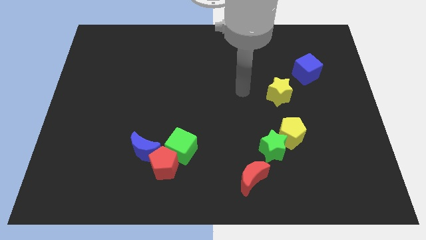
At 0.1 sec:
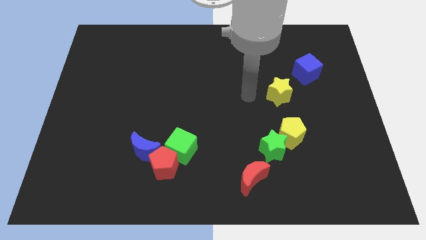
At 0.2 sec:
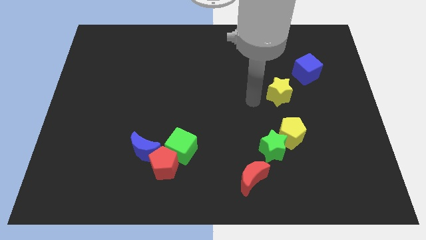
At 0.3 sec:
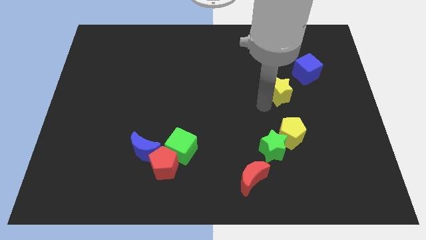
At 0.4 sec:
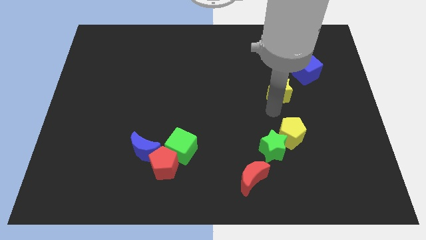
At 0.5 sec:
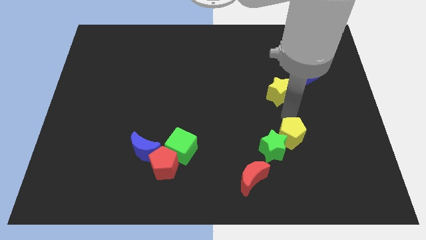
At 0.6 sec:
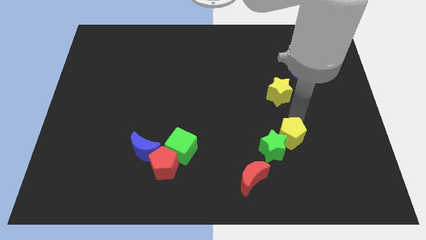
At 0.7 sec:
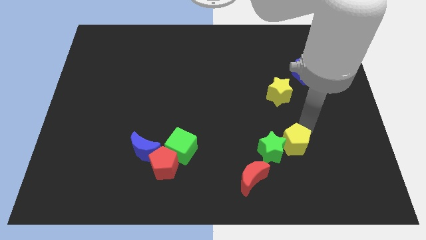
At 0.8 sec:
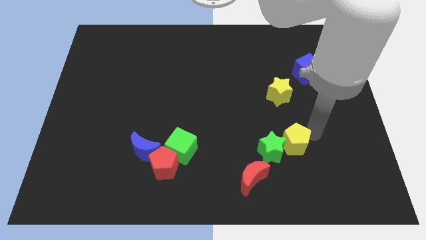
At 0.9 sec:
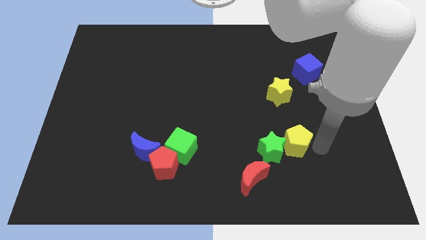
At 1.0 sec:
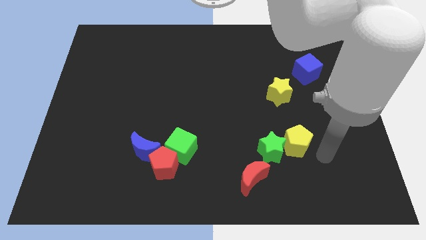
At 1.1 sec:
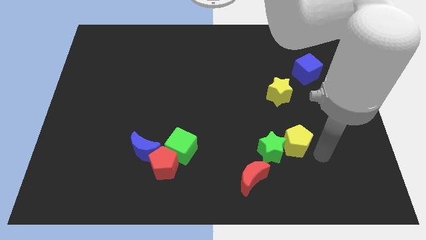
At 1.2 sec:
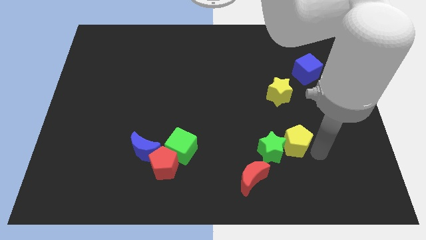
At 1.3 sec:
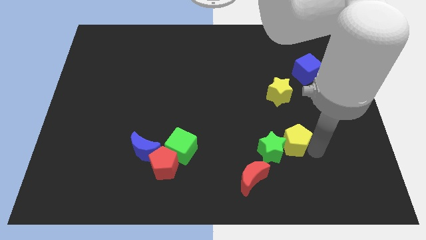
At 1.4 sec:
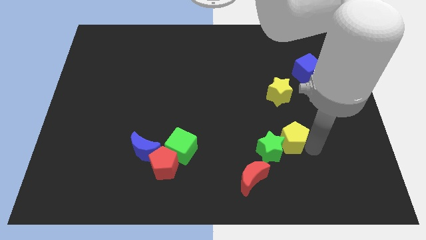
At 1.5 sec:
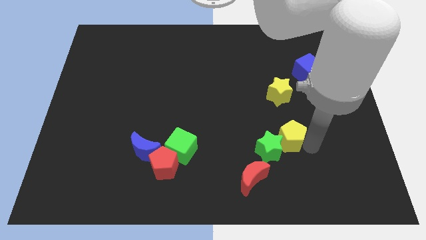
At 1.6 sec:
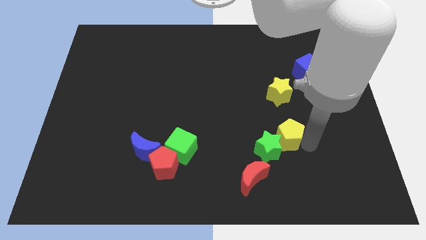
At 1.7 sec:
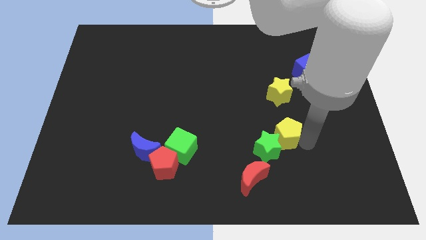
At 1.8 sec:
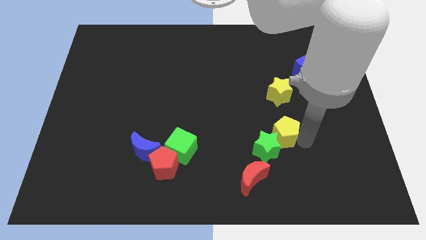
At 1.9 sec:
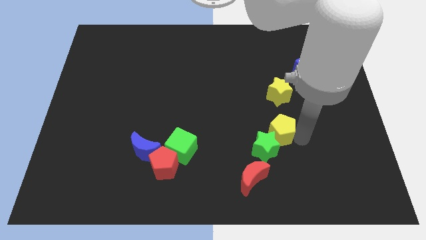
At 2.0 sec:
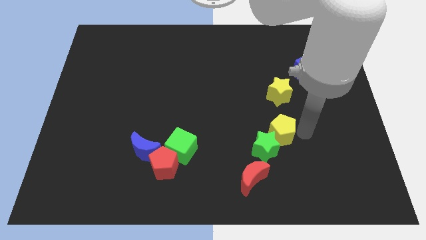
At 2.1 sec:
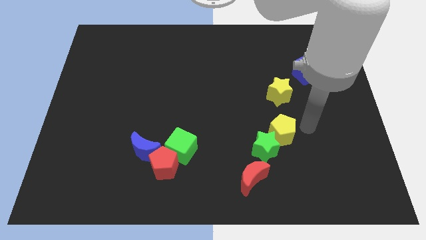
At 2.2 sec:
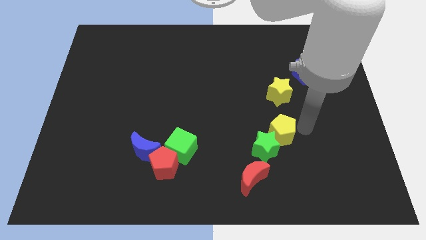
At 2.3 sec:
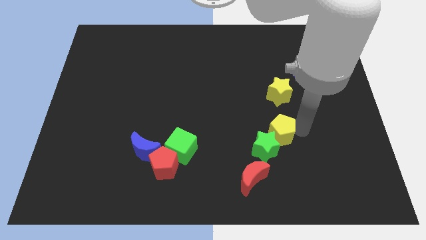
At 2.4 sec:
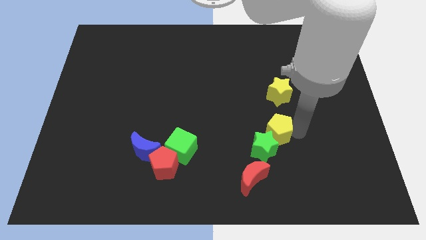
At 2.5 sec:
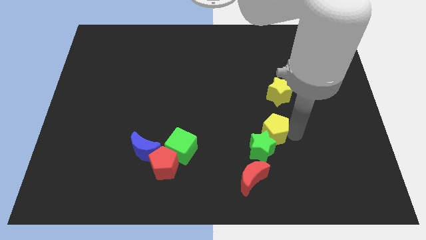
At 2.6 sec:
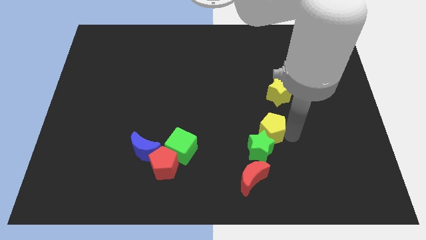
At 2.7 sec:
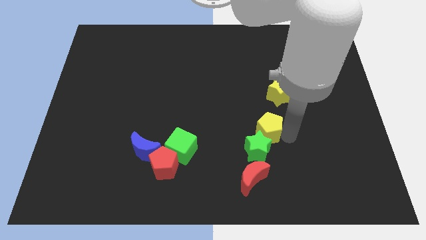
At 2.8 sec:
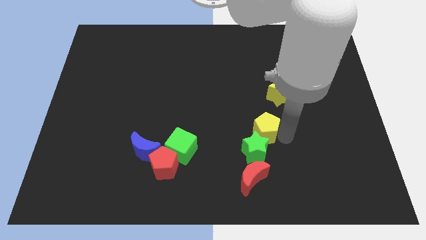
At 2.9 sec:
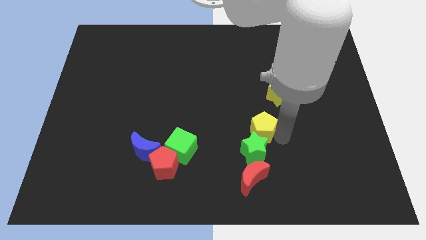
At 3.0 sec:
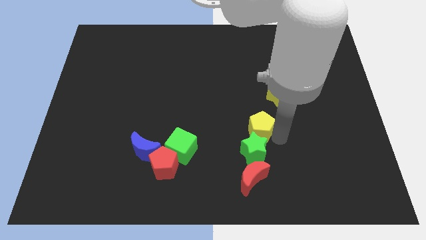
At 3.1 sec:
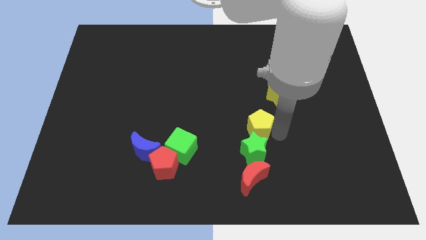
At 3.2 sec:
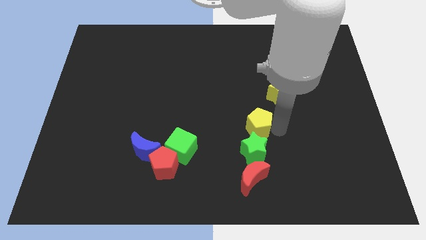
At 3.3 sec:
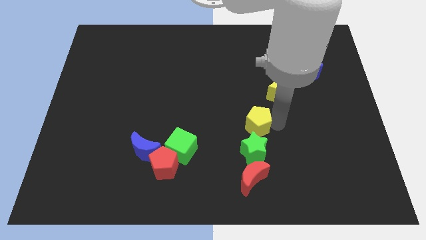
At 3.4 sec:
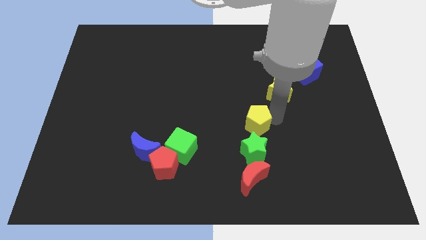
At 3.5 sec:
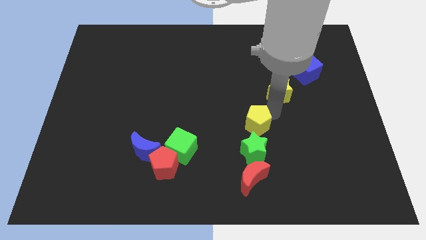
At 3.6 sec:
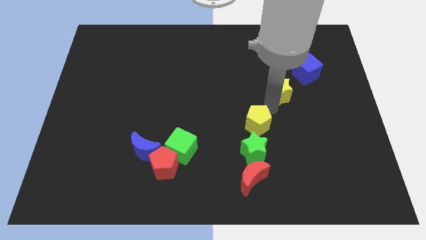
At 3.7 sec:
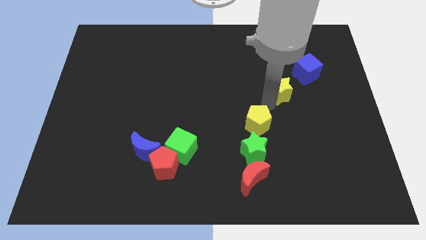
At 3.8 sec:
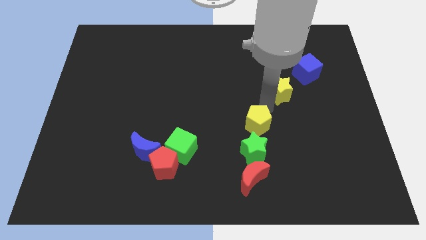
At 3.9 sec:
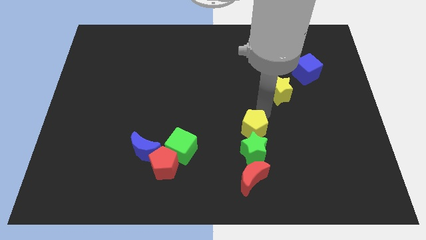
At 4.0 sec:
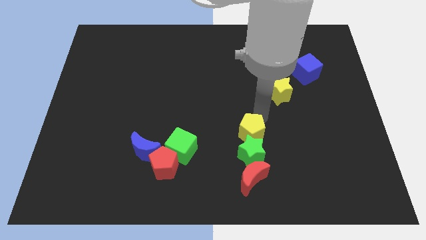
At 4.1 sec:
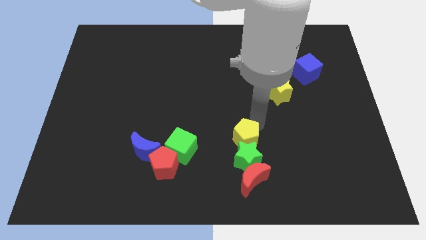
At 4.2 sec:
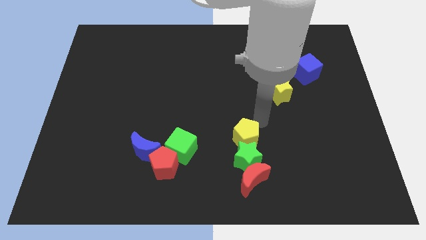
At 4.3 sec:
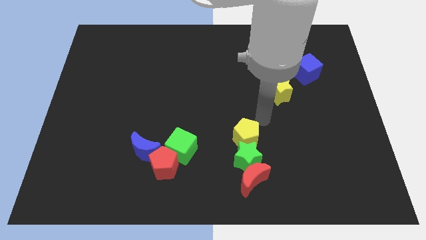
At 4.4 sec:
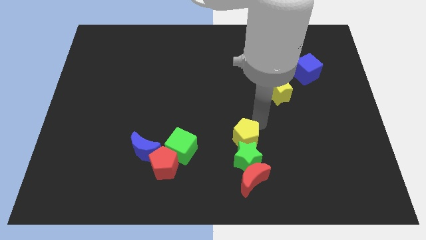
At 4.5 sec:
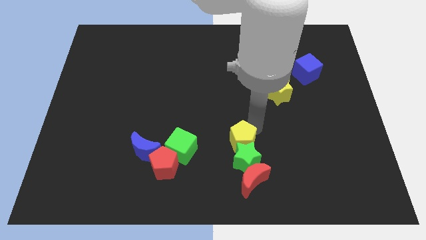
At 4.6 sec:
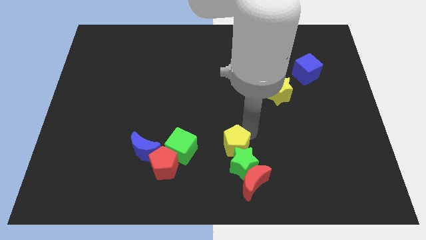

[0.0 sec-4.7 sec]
push the yellow pentagon to the top left side of the red moon

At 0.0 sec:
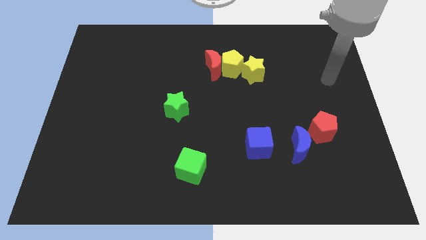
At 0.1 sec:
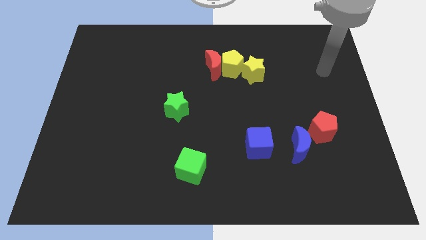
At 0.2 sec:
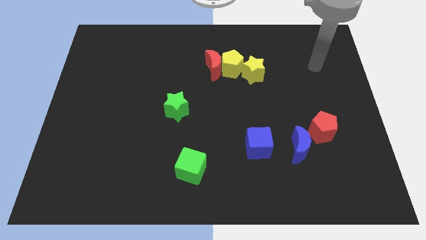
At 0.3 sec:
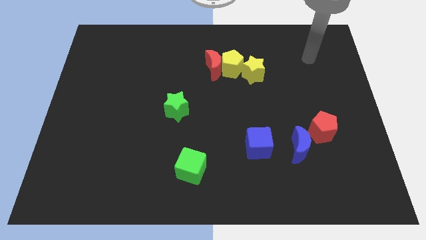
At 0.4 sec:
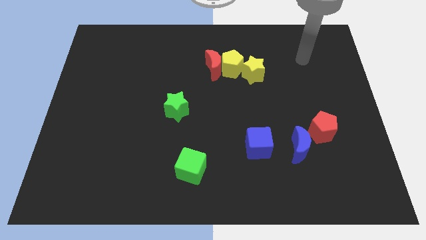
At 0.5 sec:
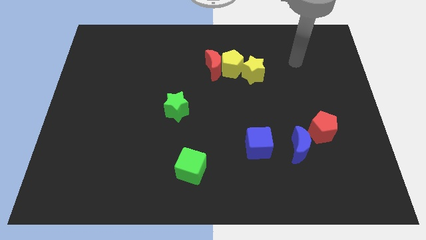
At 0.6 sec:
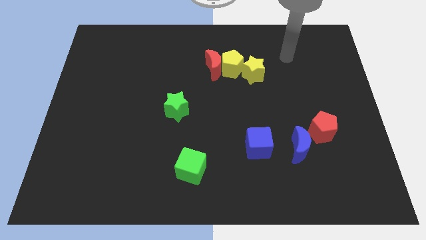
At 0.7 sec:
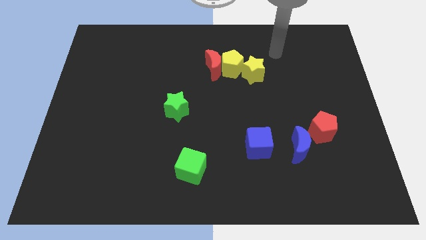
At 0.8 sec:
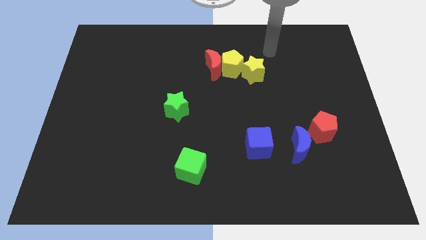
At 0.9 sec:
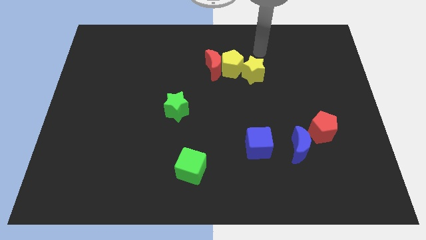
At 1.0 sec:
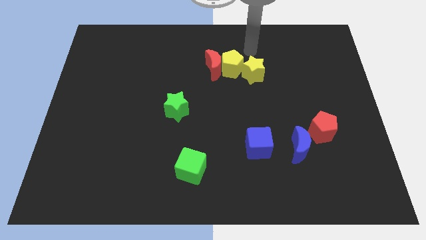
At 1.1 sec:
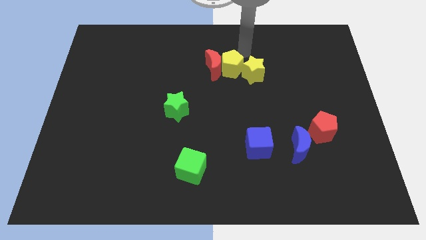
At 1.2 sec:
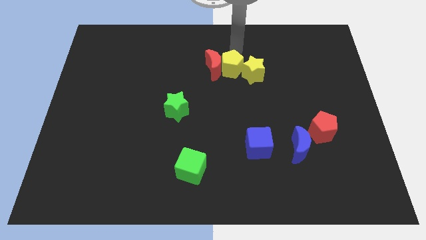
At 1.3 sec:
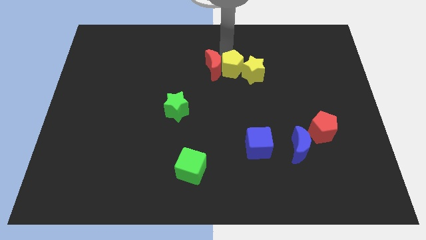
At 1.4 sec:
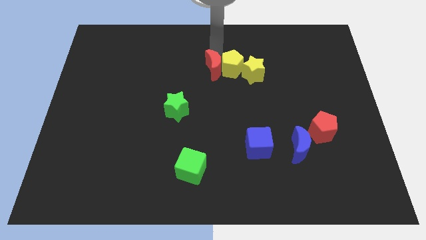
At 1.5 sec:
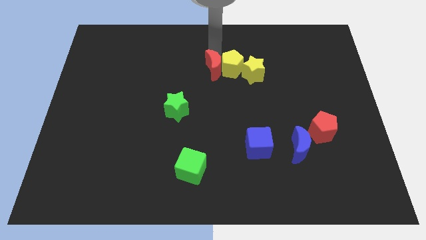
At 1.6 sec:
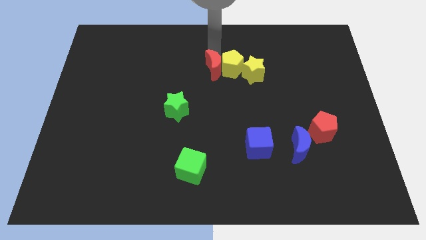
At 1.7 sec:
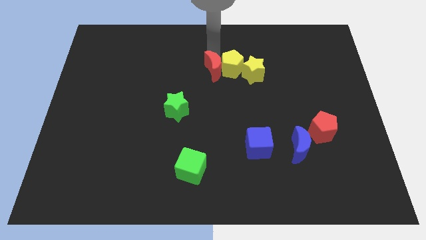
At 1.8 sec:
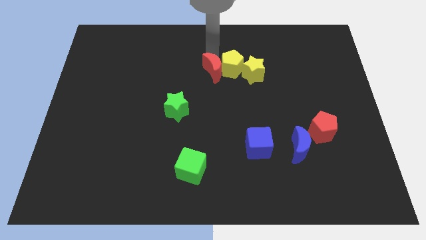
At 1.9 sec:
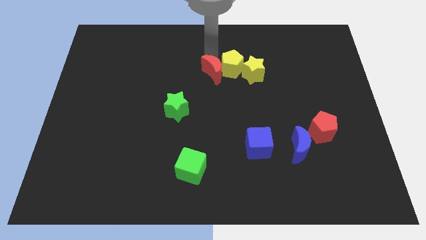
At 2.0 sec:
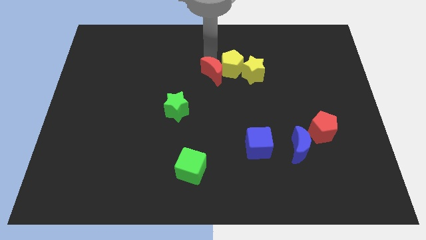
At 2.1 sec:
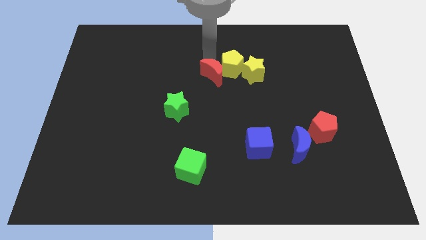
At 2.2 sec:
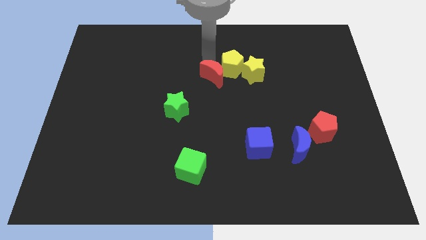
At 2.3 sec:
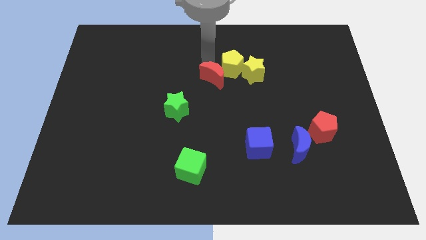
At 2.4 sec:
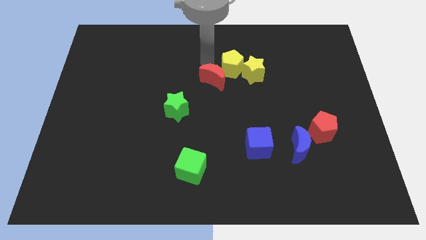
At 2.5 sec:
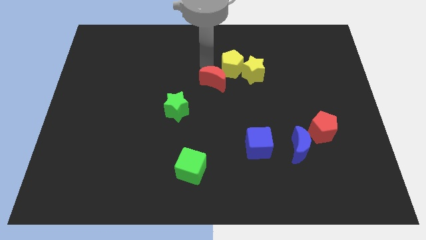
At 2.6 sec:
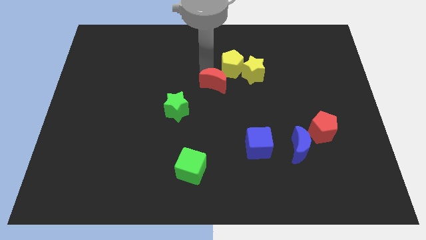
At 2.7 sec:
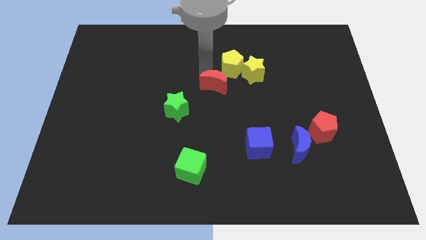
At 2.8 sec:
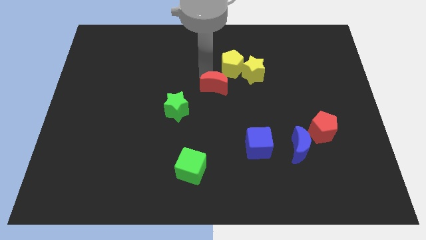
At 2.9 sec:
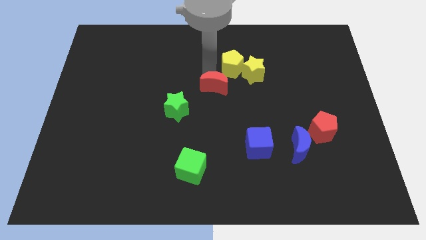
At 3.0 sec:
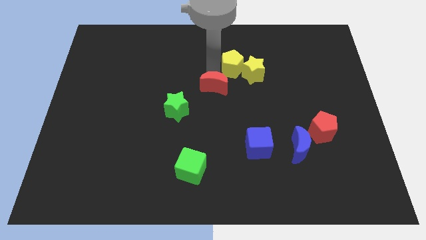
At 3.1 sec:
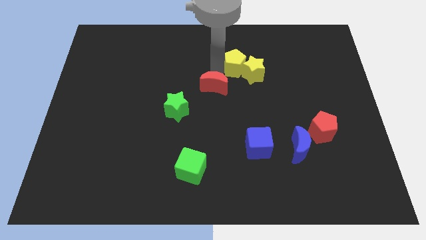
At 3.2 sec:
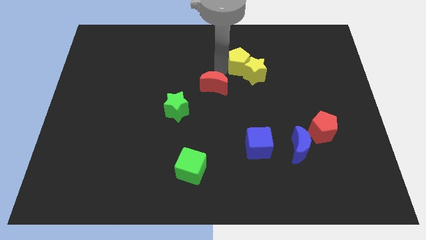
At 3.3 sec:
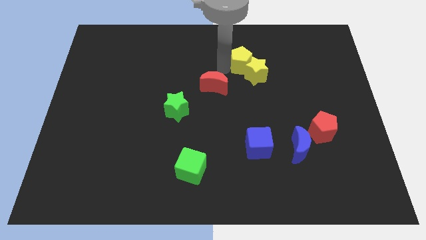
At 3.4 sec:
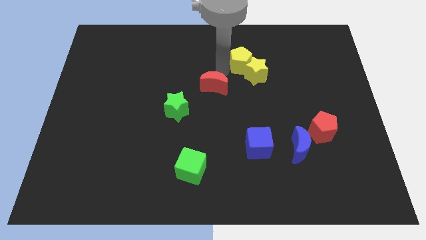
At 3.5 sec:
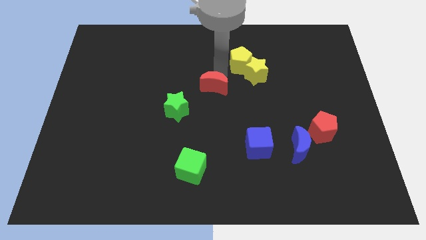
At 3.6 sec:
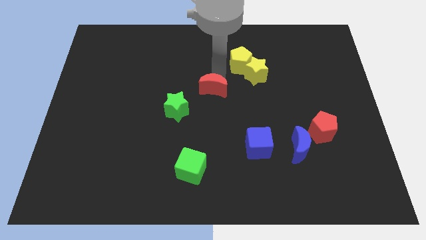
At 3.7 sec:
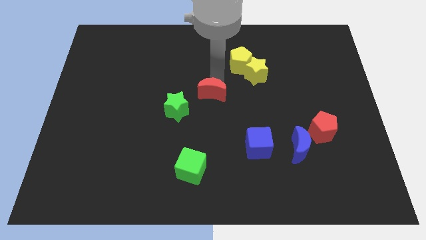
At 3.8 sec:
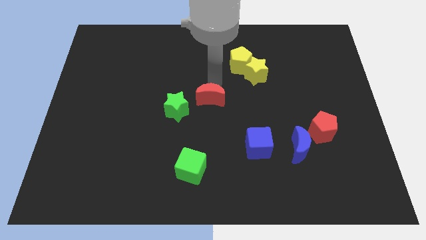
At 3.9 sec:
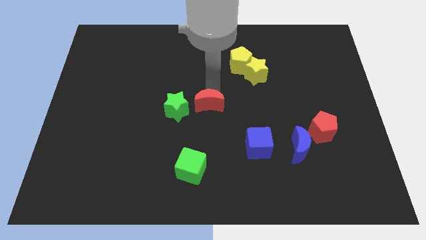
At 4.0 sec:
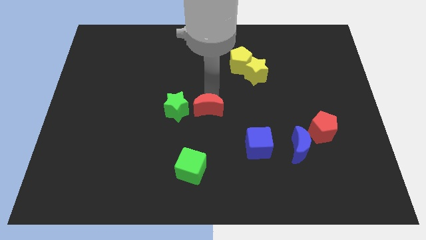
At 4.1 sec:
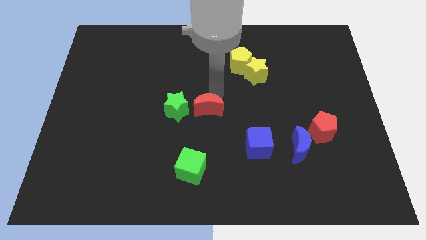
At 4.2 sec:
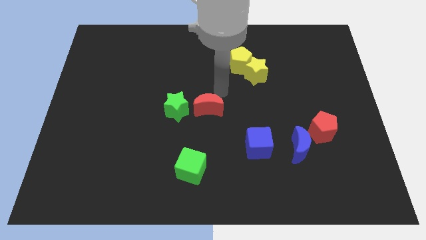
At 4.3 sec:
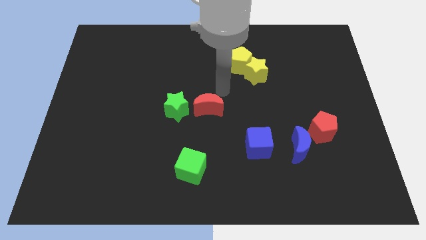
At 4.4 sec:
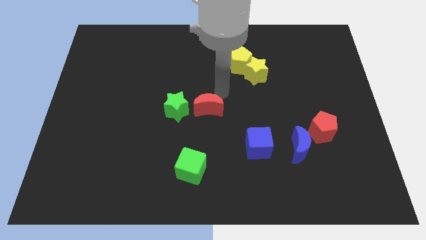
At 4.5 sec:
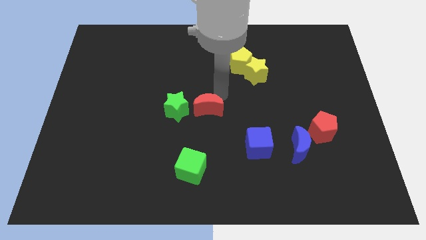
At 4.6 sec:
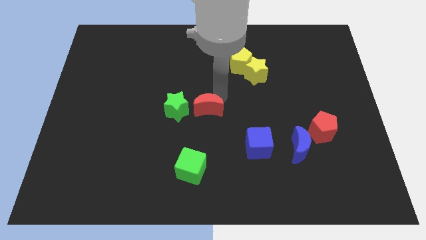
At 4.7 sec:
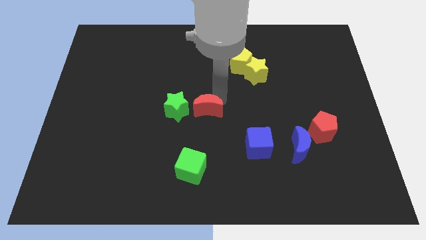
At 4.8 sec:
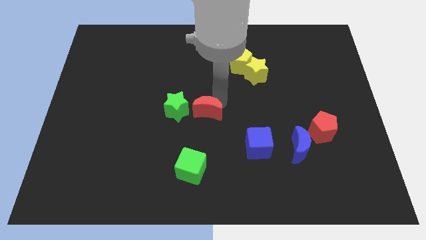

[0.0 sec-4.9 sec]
slide the red moon to the top side of the green cube
